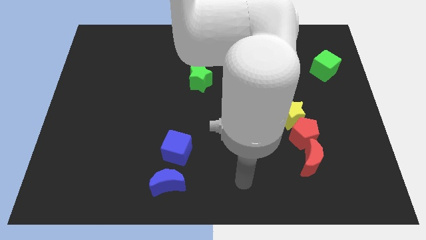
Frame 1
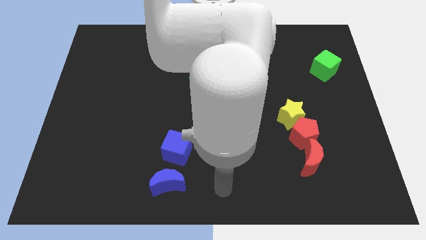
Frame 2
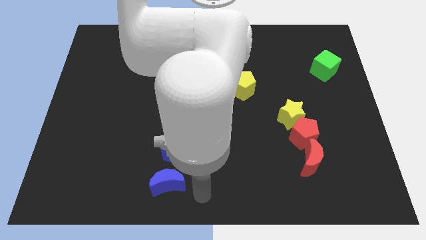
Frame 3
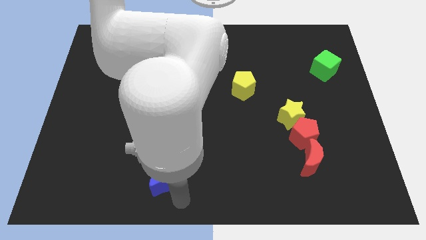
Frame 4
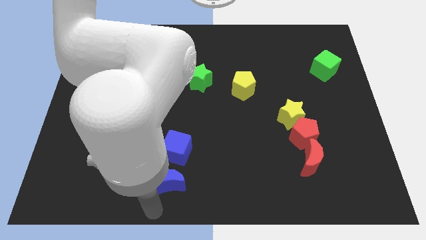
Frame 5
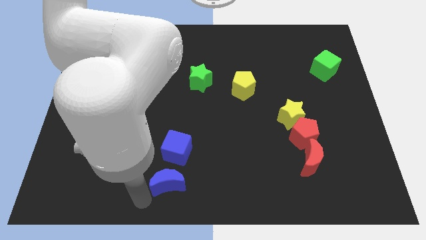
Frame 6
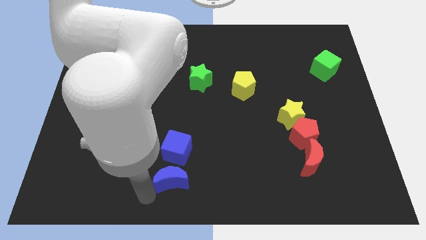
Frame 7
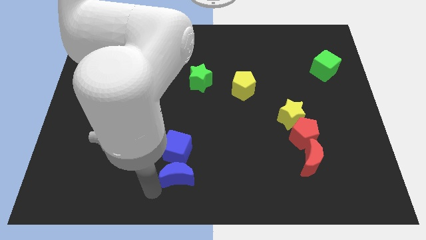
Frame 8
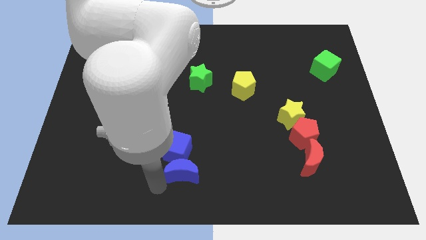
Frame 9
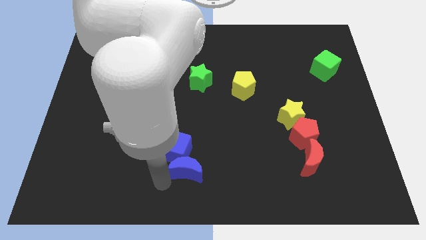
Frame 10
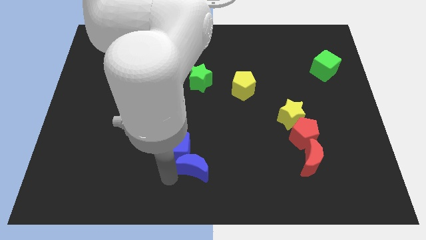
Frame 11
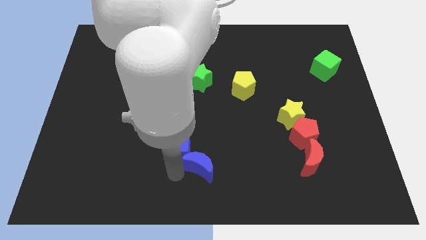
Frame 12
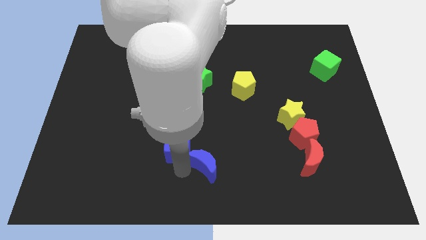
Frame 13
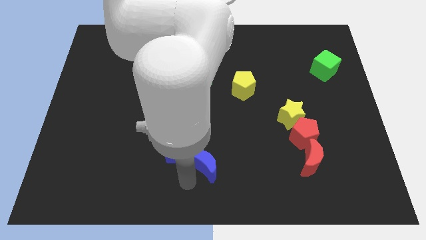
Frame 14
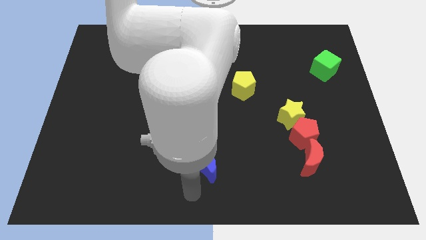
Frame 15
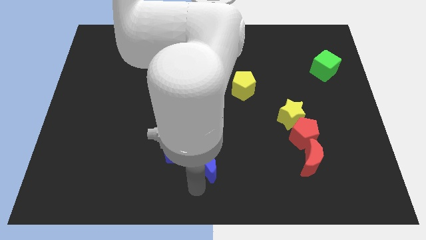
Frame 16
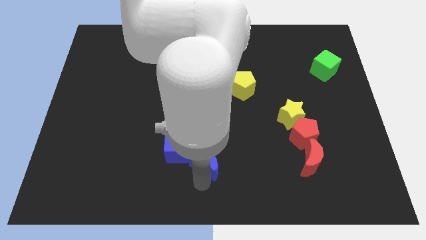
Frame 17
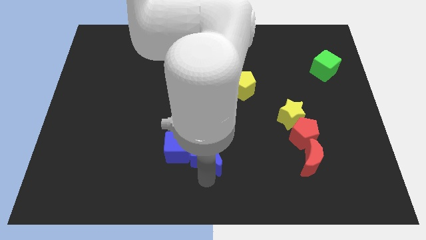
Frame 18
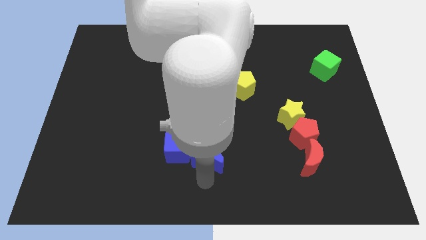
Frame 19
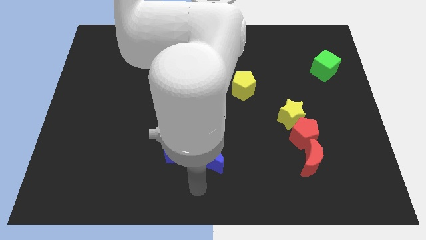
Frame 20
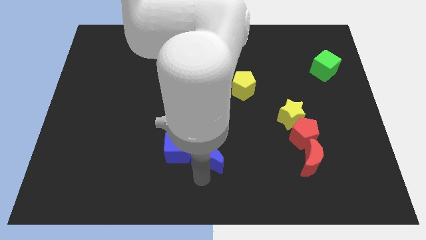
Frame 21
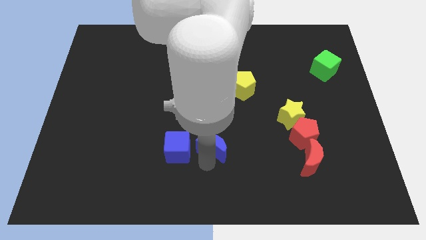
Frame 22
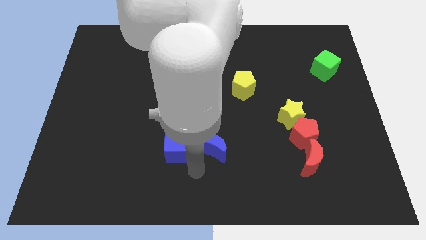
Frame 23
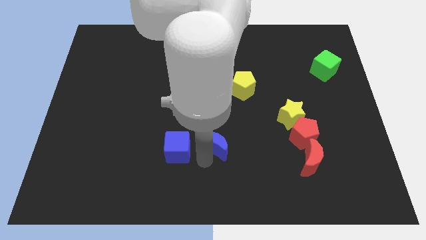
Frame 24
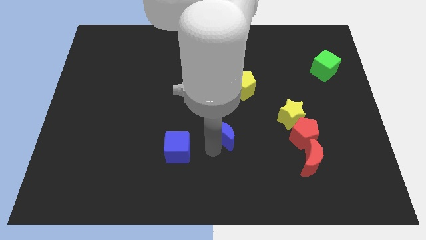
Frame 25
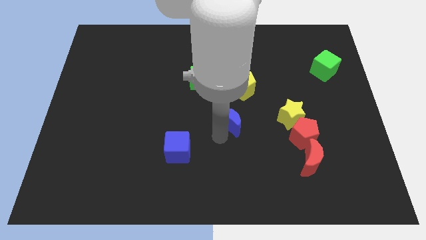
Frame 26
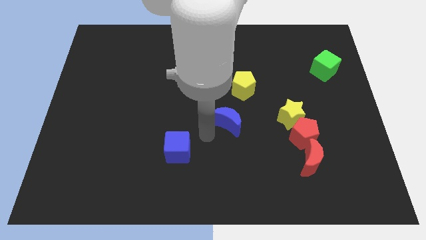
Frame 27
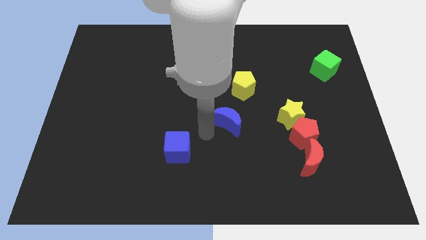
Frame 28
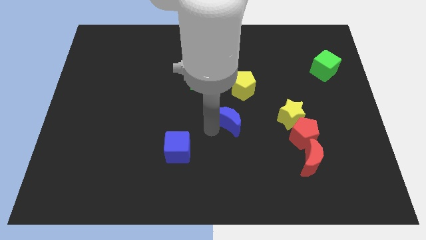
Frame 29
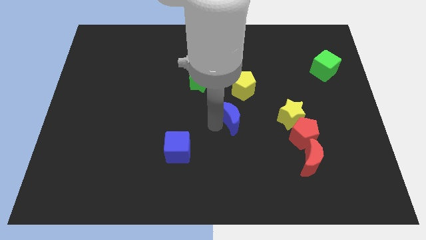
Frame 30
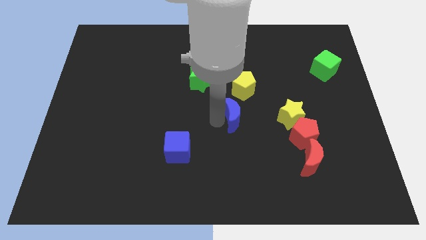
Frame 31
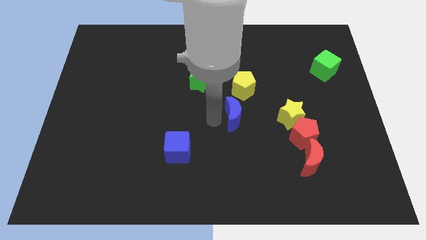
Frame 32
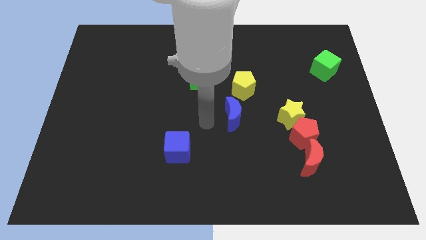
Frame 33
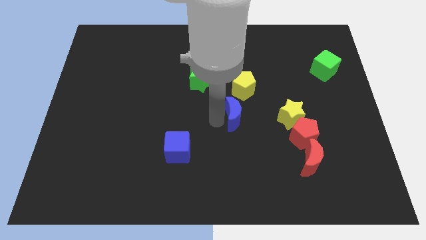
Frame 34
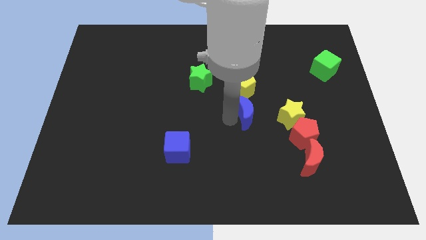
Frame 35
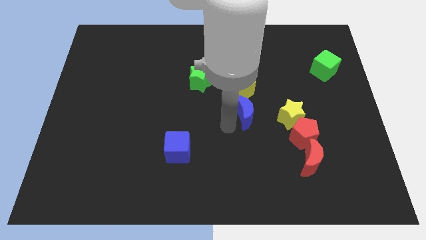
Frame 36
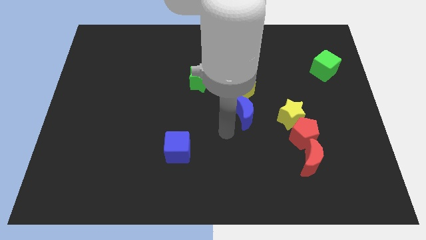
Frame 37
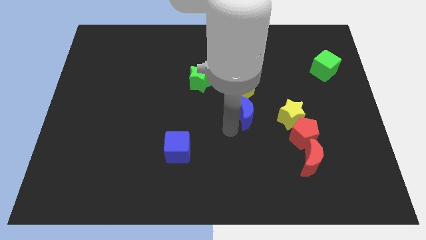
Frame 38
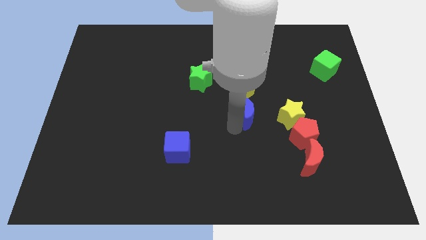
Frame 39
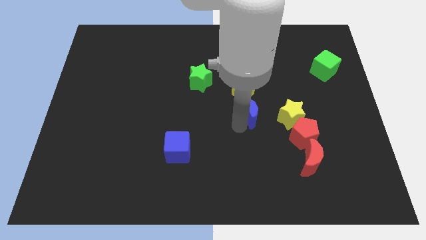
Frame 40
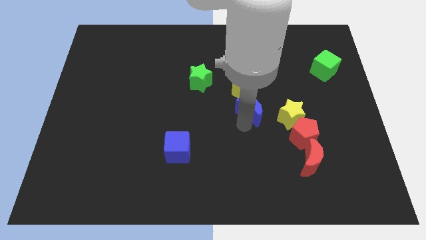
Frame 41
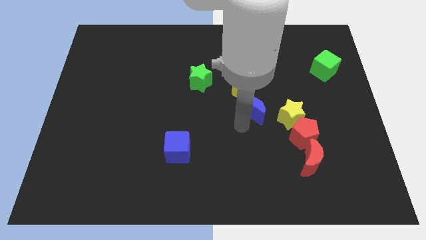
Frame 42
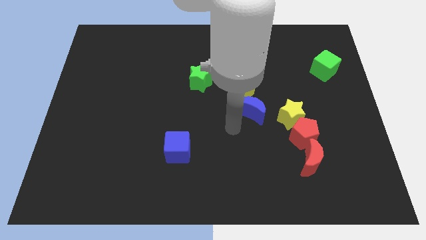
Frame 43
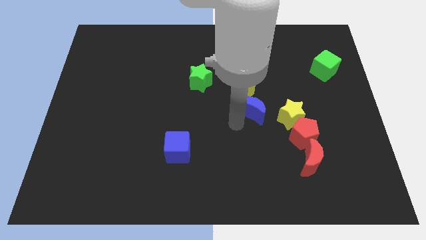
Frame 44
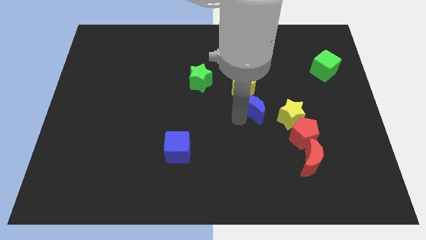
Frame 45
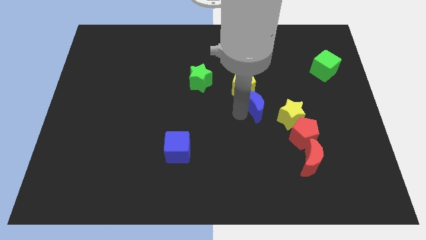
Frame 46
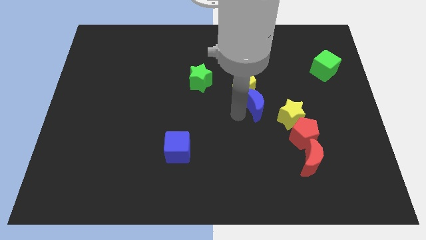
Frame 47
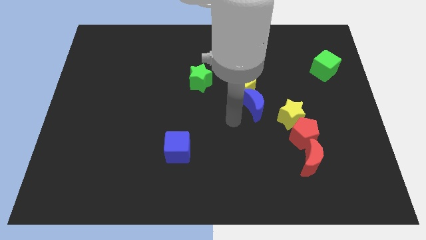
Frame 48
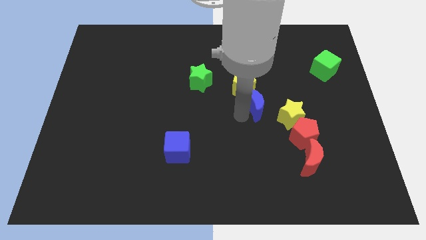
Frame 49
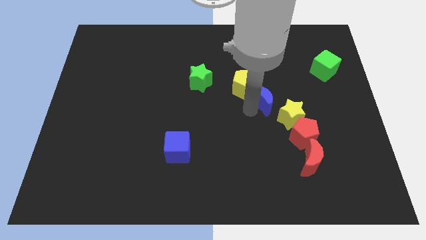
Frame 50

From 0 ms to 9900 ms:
move the blue moon just right of the yellow pentagon

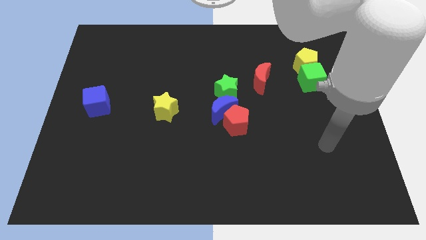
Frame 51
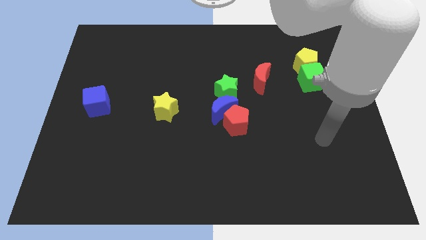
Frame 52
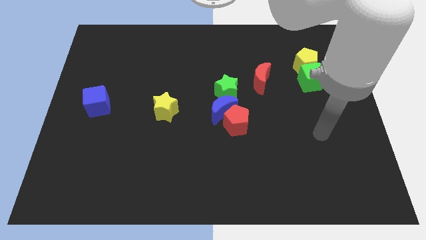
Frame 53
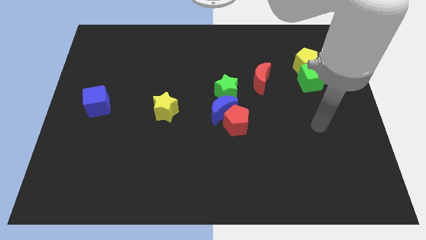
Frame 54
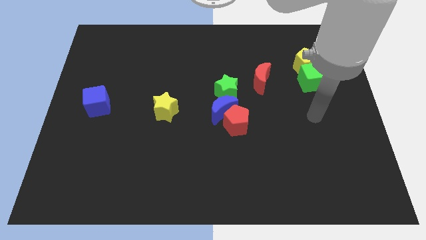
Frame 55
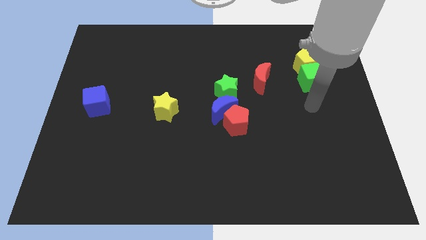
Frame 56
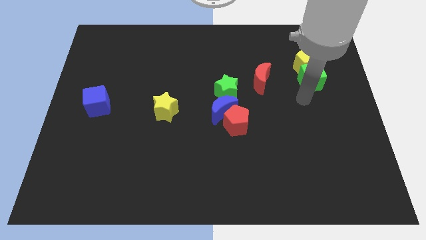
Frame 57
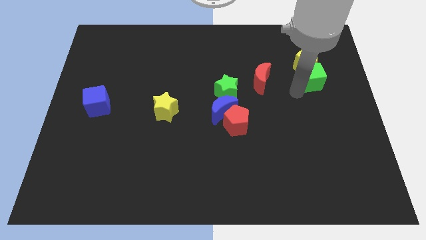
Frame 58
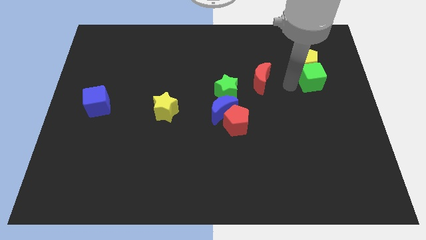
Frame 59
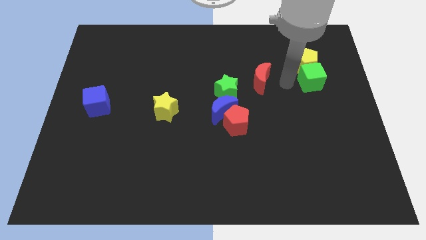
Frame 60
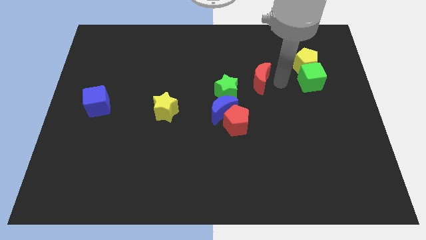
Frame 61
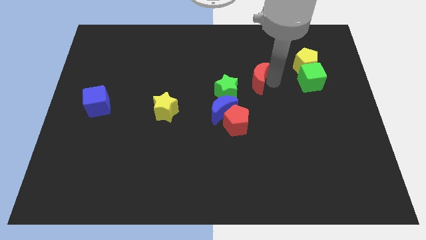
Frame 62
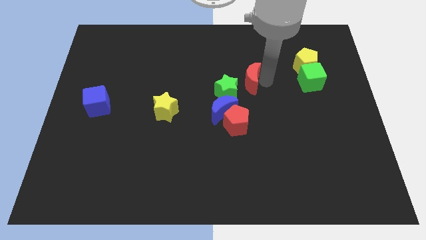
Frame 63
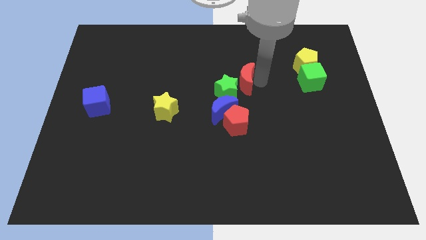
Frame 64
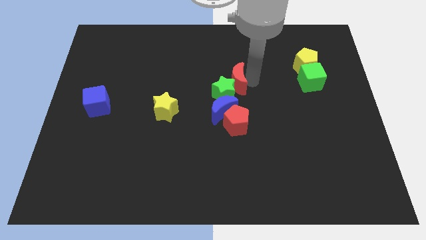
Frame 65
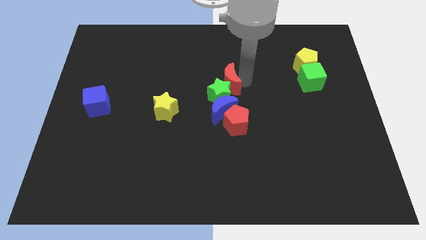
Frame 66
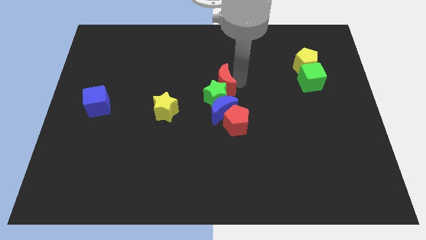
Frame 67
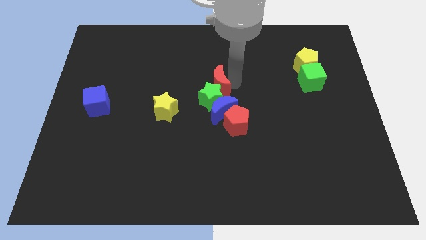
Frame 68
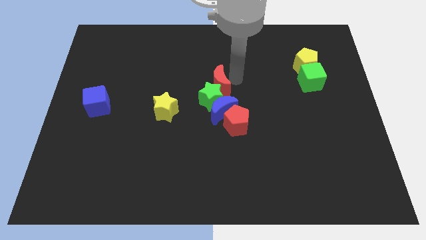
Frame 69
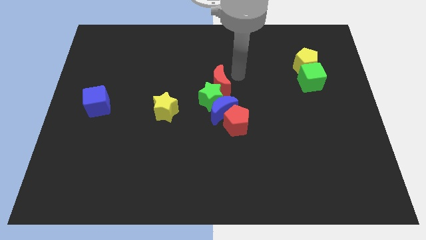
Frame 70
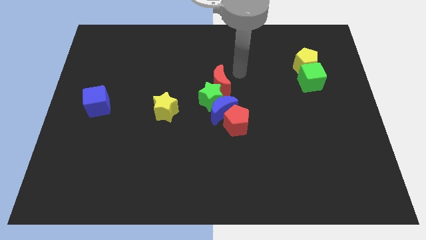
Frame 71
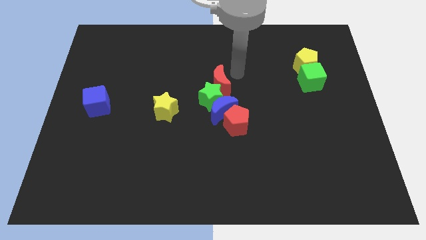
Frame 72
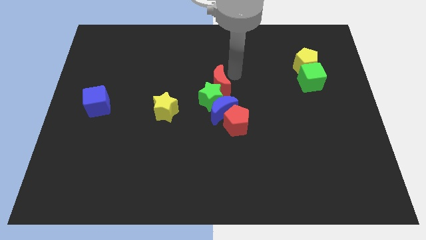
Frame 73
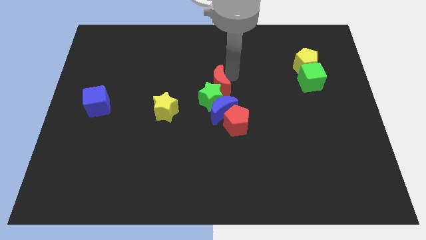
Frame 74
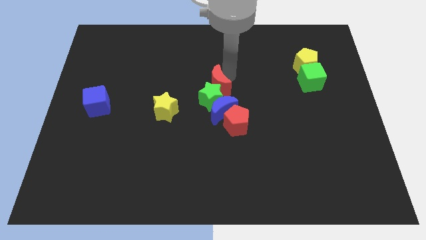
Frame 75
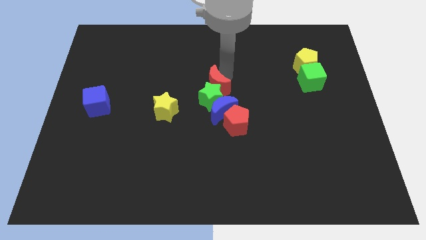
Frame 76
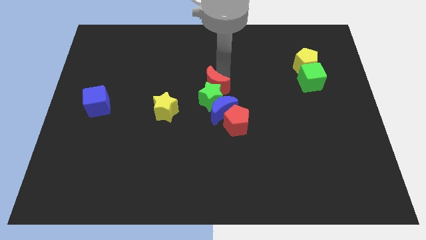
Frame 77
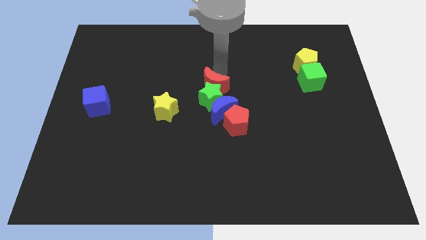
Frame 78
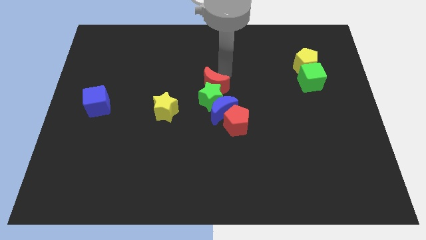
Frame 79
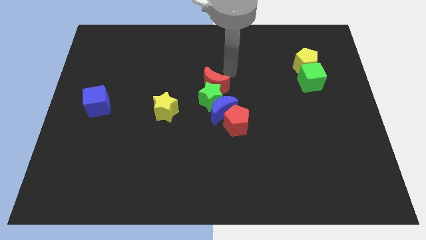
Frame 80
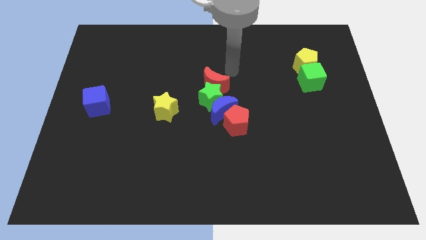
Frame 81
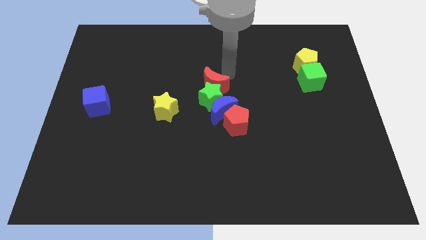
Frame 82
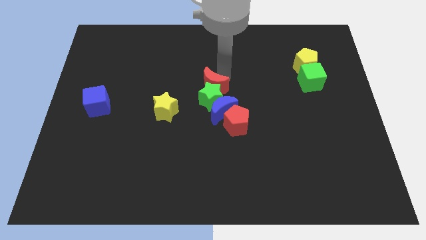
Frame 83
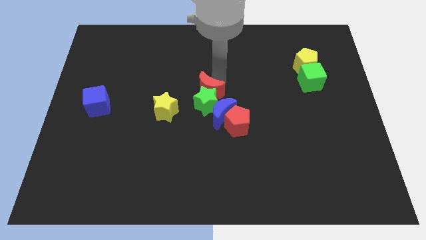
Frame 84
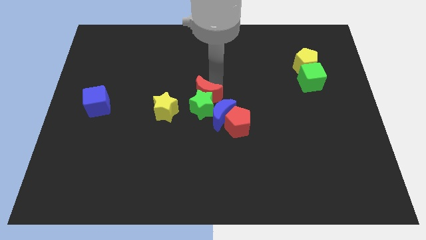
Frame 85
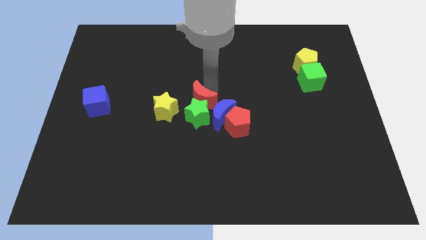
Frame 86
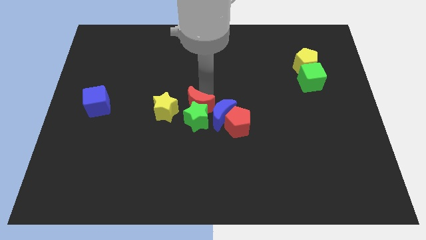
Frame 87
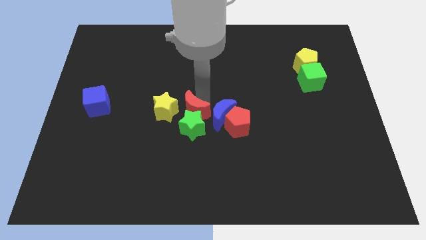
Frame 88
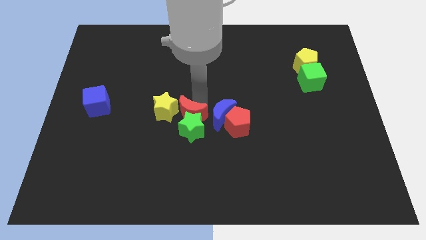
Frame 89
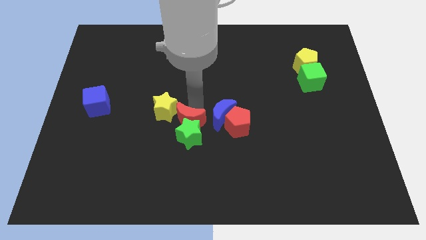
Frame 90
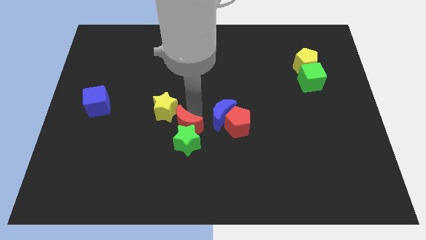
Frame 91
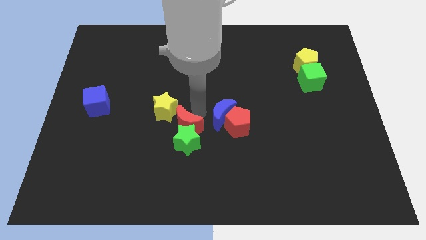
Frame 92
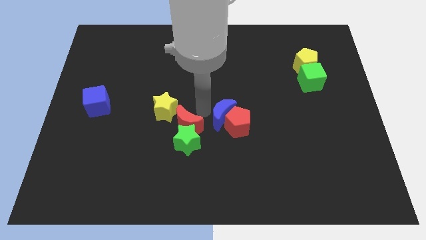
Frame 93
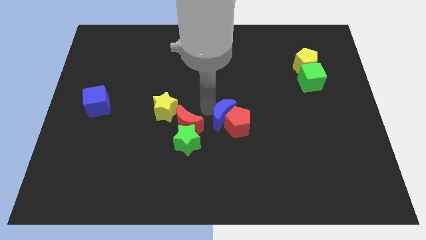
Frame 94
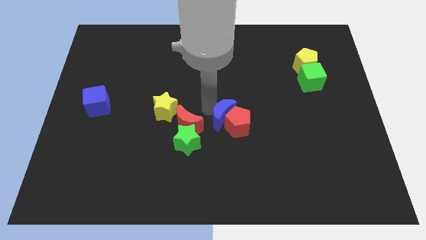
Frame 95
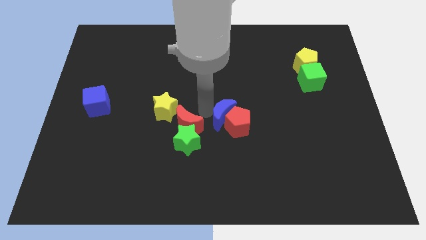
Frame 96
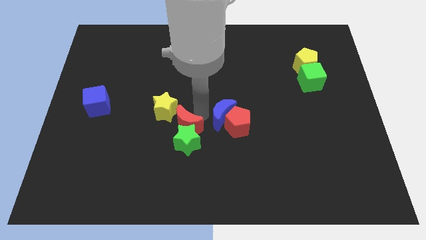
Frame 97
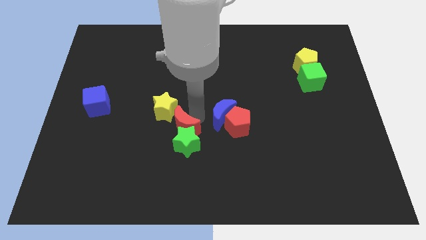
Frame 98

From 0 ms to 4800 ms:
slide the red moon to the bottom side of the yellow star
